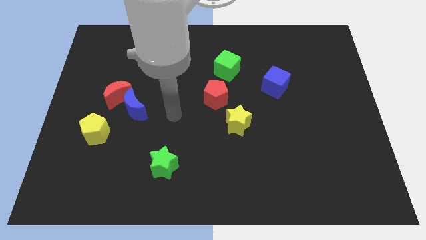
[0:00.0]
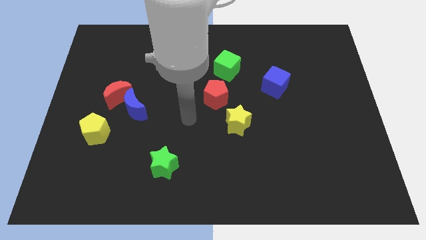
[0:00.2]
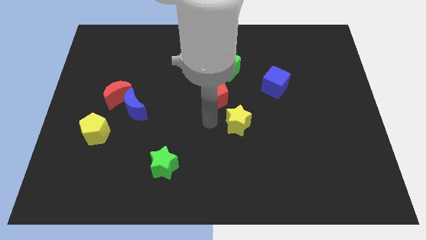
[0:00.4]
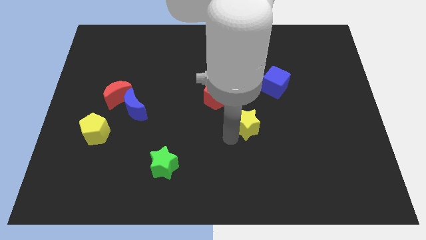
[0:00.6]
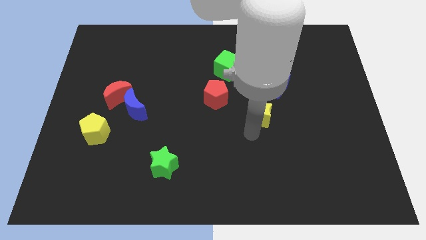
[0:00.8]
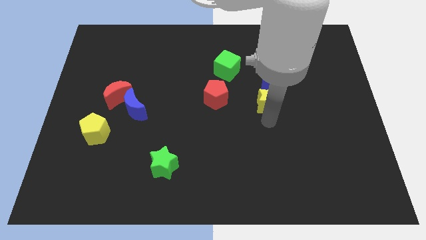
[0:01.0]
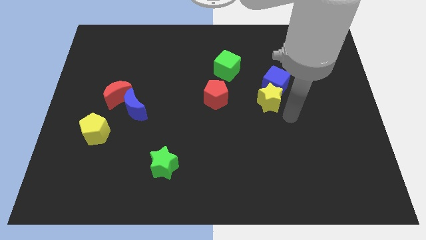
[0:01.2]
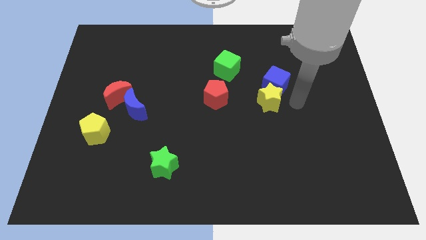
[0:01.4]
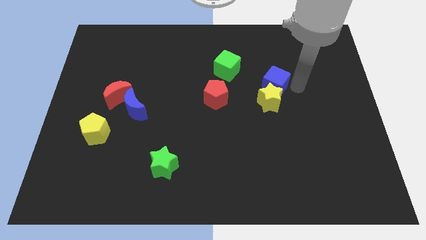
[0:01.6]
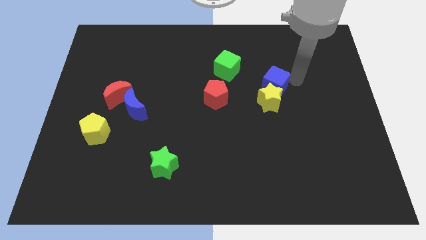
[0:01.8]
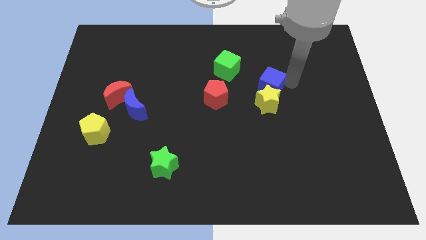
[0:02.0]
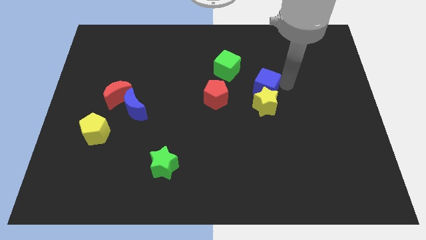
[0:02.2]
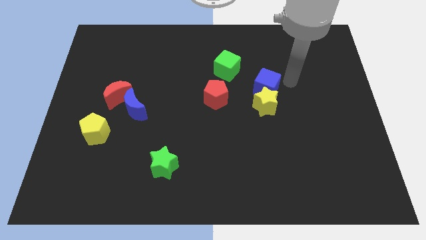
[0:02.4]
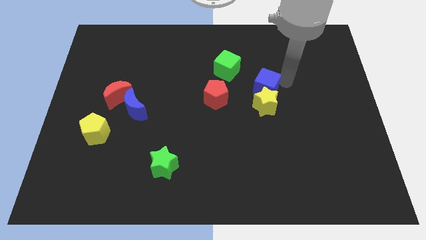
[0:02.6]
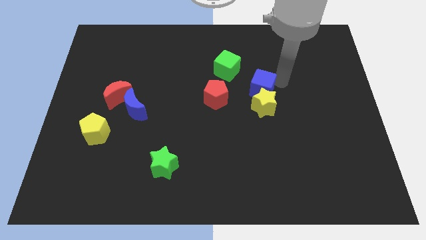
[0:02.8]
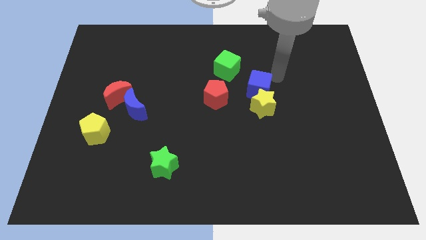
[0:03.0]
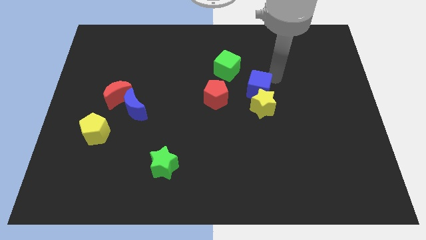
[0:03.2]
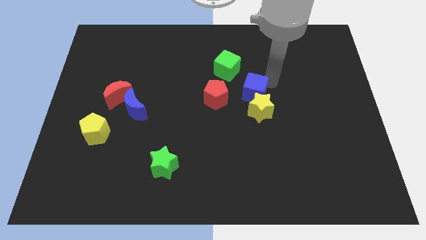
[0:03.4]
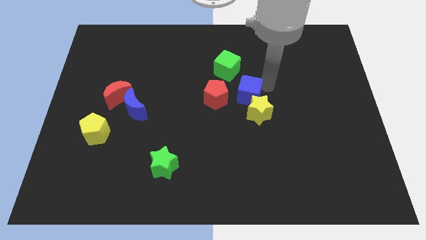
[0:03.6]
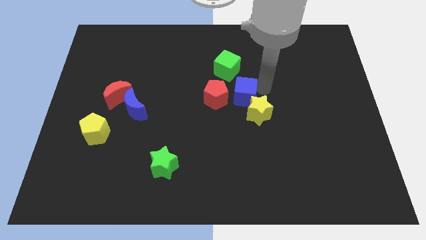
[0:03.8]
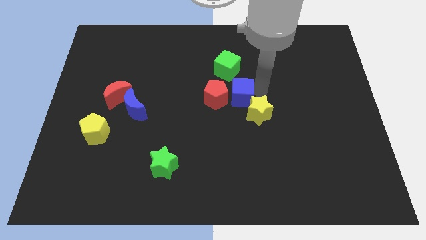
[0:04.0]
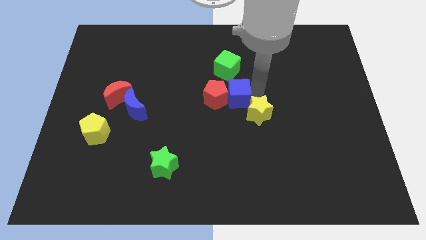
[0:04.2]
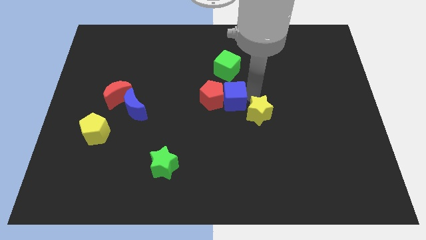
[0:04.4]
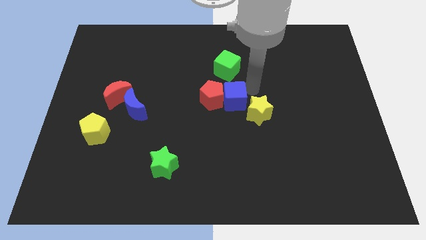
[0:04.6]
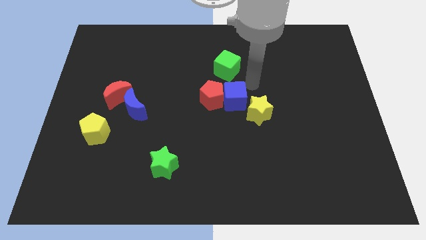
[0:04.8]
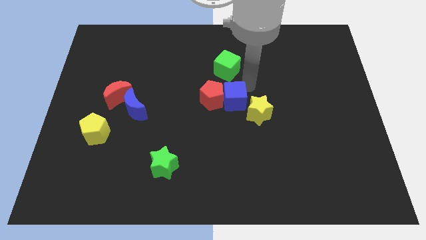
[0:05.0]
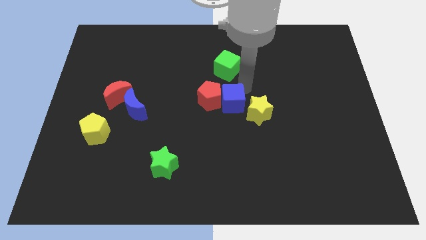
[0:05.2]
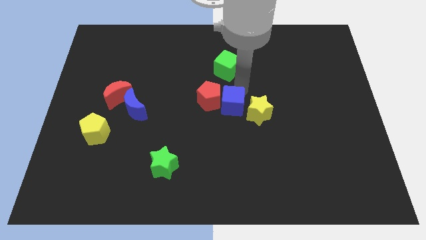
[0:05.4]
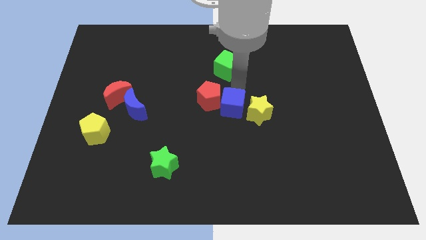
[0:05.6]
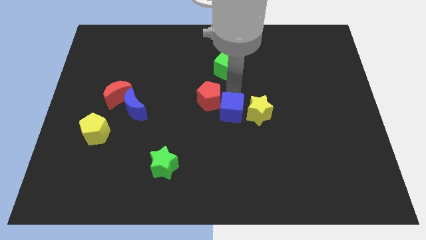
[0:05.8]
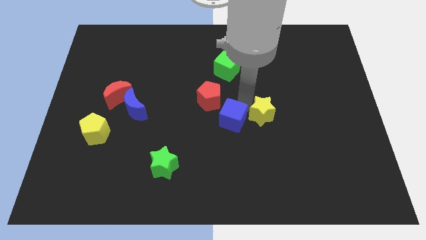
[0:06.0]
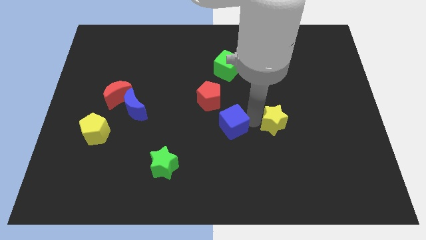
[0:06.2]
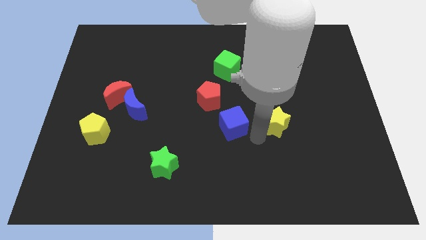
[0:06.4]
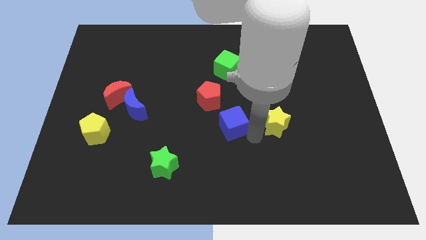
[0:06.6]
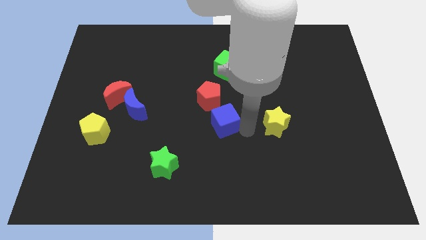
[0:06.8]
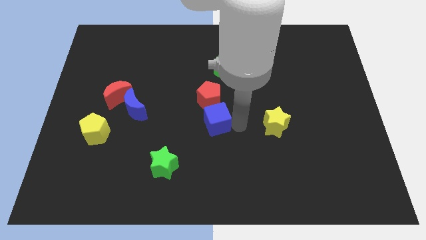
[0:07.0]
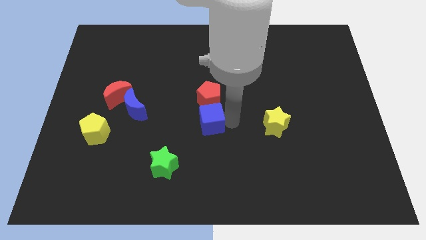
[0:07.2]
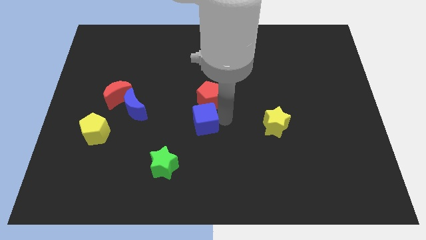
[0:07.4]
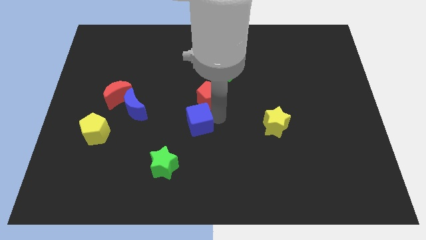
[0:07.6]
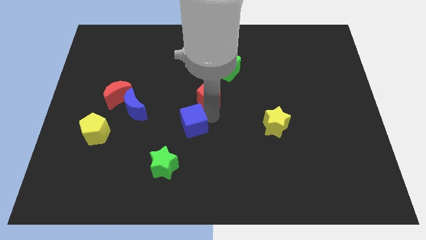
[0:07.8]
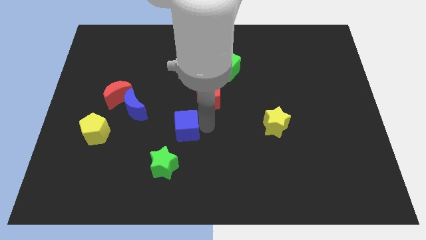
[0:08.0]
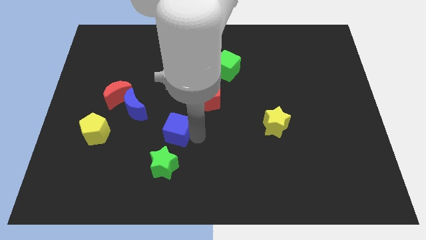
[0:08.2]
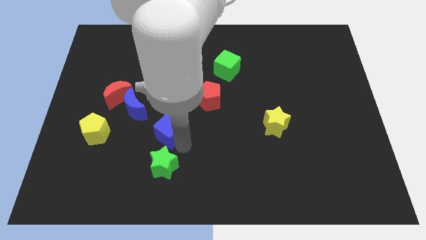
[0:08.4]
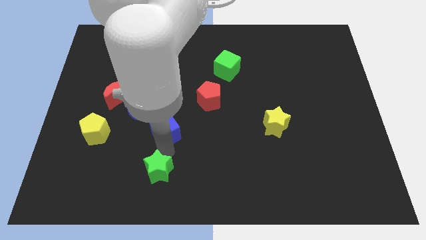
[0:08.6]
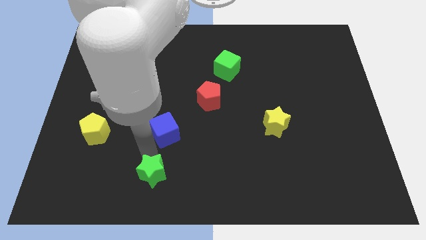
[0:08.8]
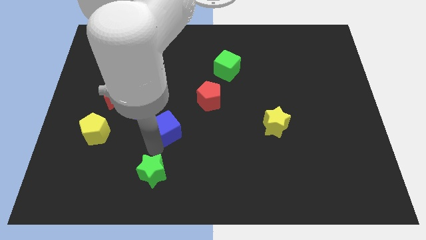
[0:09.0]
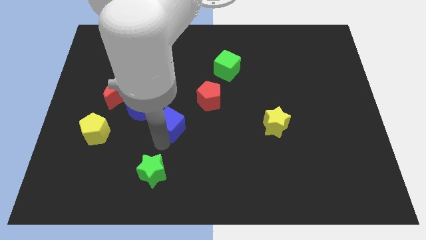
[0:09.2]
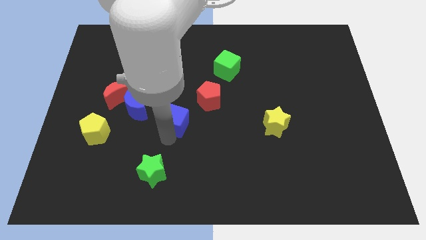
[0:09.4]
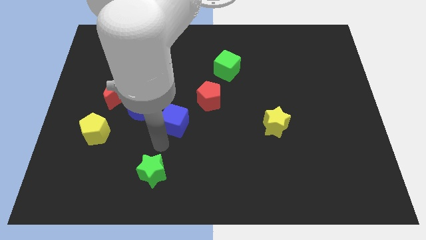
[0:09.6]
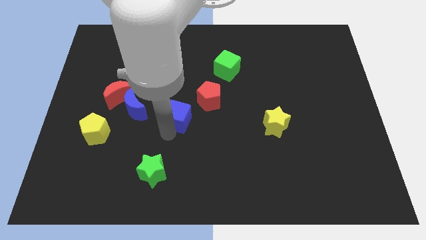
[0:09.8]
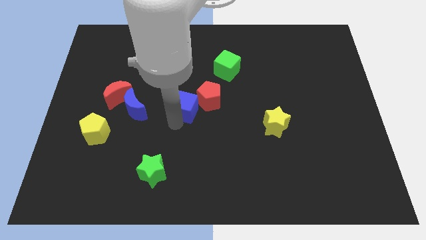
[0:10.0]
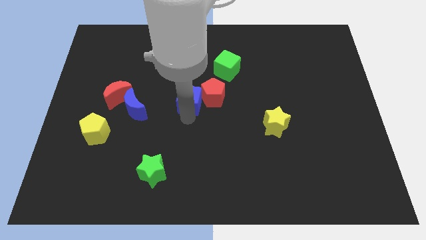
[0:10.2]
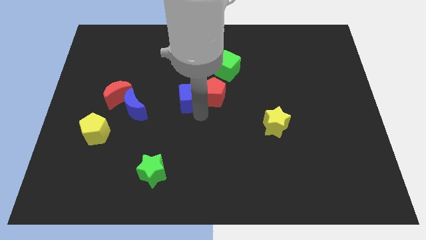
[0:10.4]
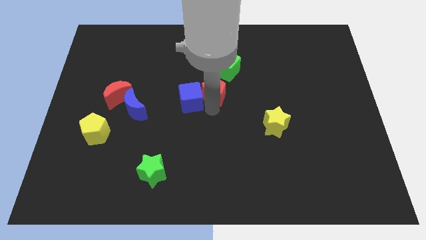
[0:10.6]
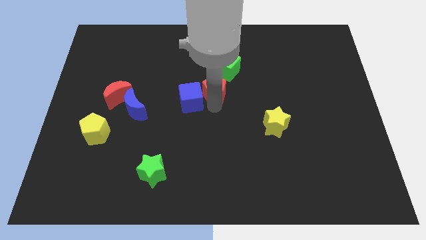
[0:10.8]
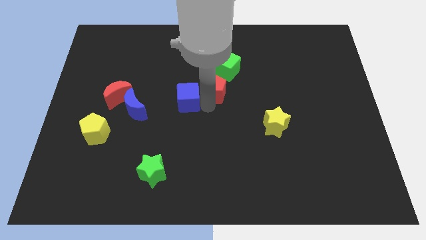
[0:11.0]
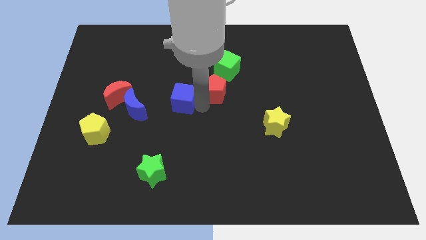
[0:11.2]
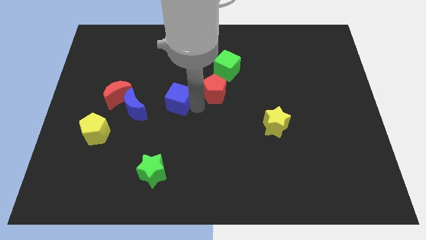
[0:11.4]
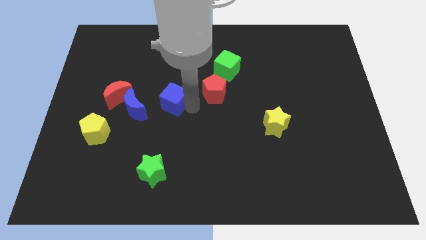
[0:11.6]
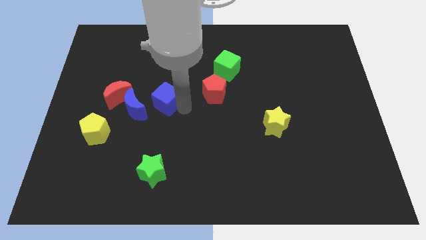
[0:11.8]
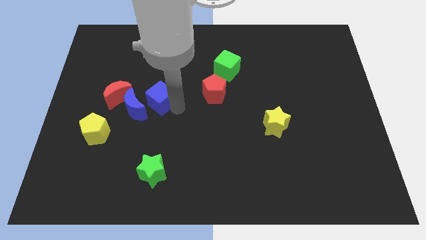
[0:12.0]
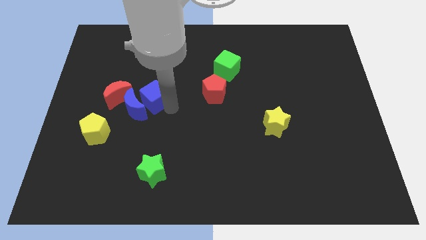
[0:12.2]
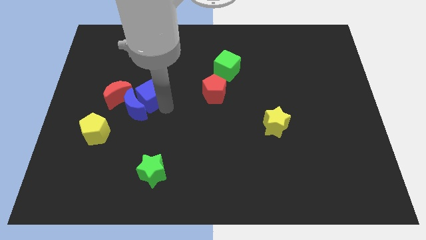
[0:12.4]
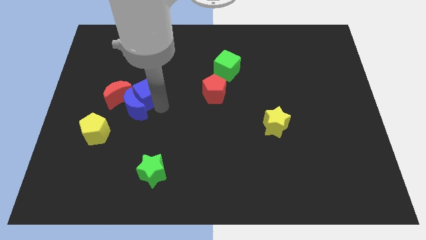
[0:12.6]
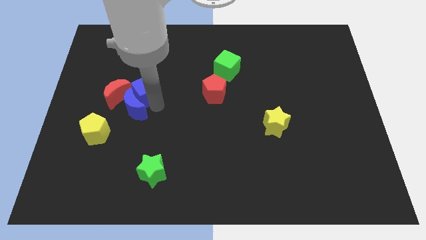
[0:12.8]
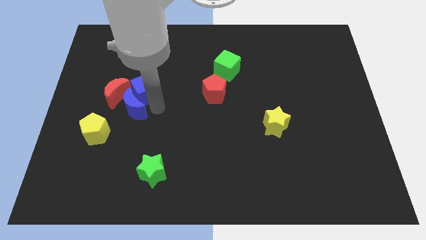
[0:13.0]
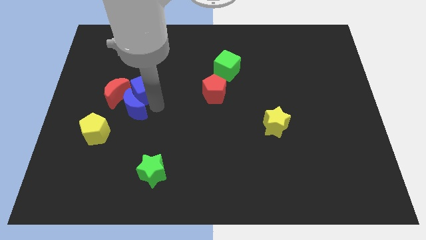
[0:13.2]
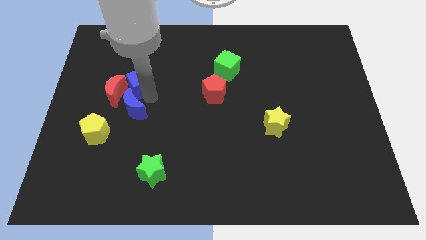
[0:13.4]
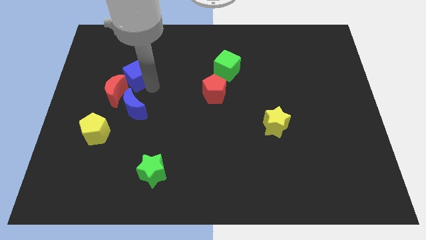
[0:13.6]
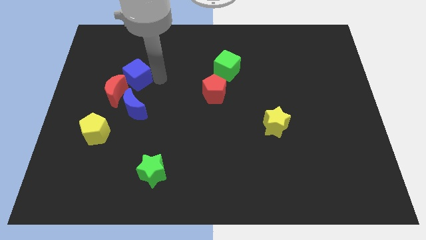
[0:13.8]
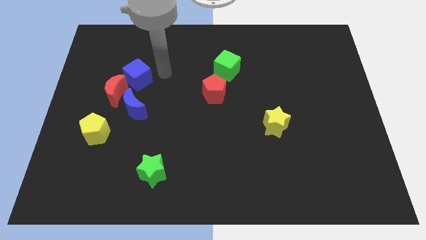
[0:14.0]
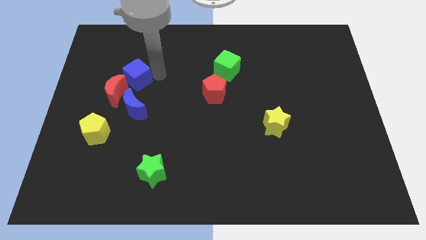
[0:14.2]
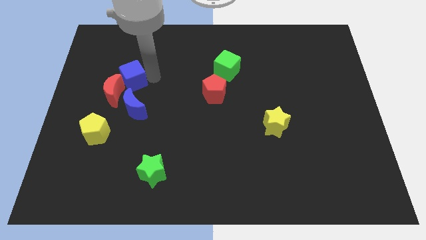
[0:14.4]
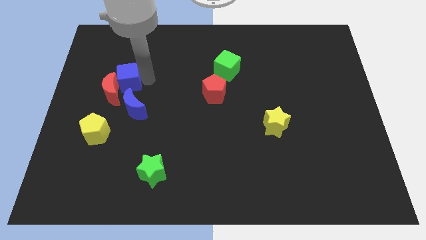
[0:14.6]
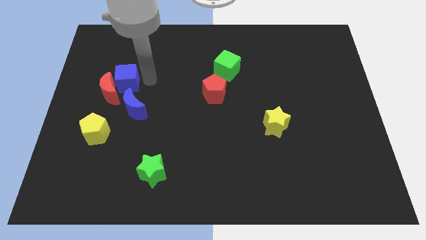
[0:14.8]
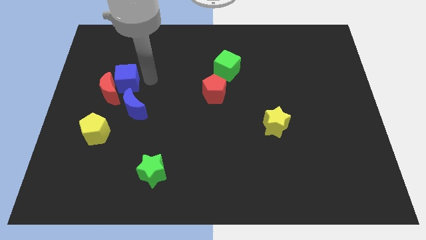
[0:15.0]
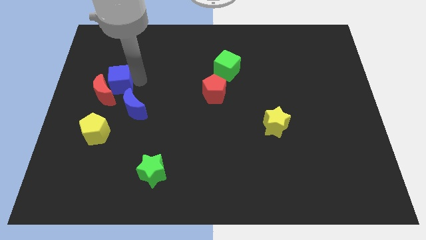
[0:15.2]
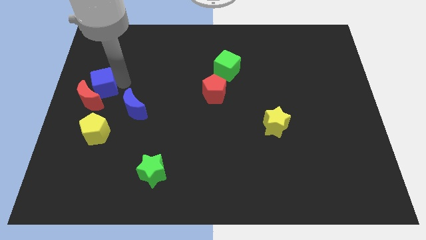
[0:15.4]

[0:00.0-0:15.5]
put the blue cube to the center left
